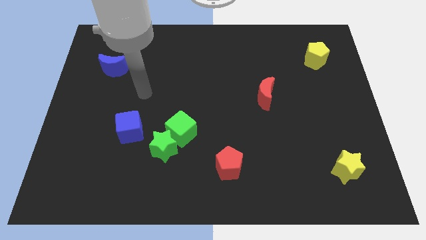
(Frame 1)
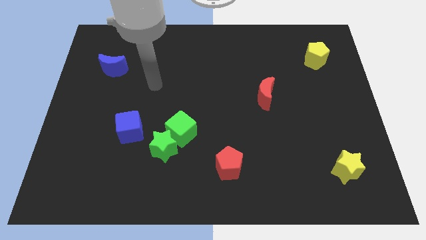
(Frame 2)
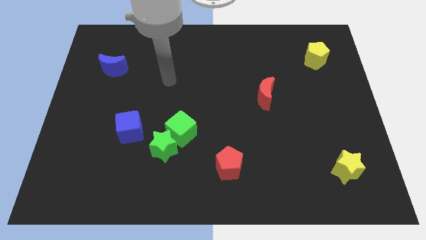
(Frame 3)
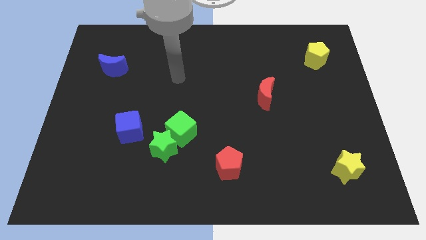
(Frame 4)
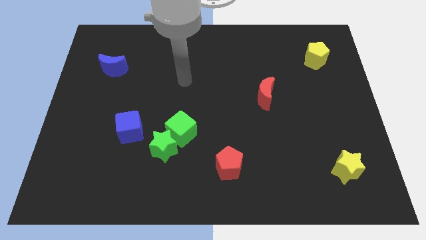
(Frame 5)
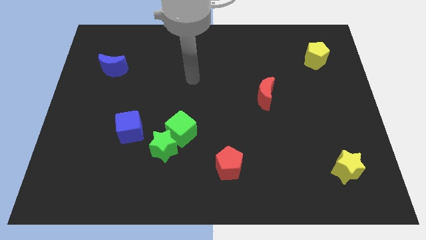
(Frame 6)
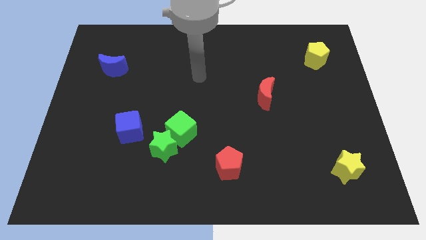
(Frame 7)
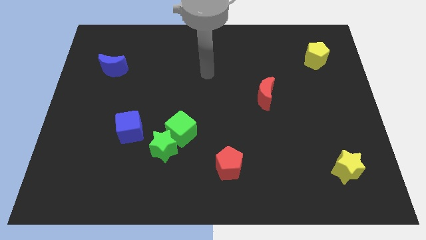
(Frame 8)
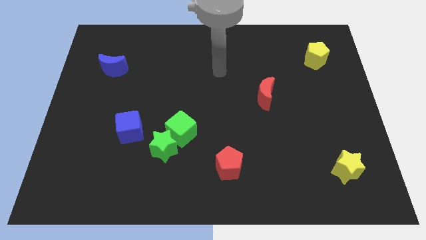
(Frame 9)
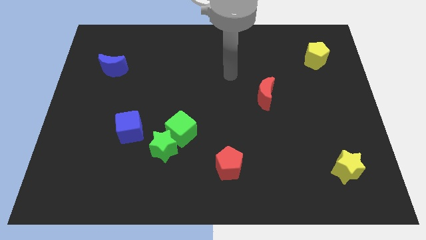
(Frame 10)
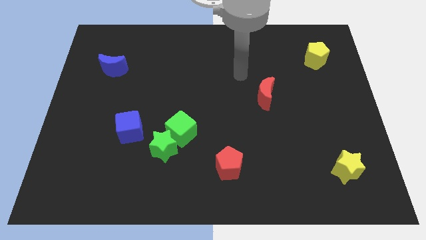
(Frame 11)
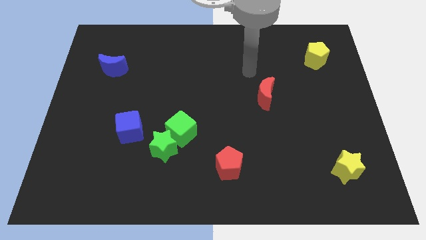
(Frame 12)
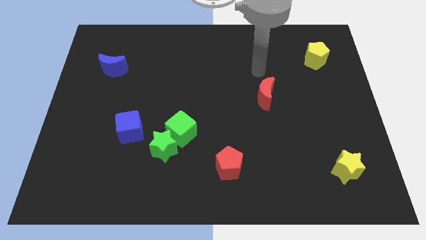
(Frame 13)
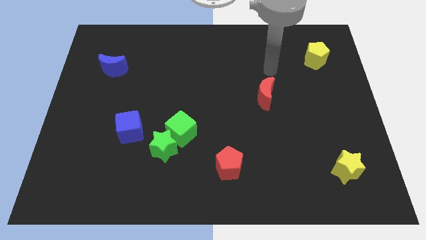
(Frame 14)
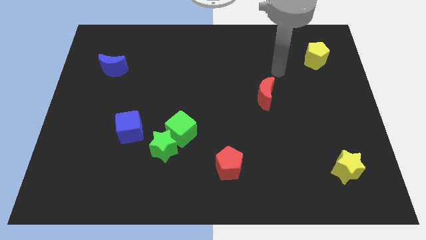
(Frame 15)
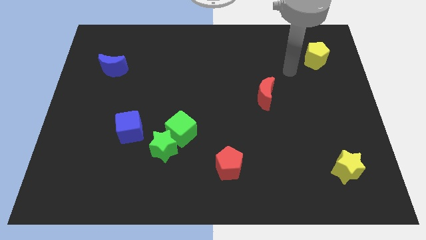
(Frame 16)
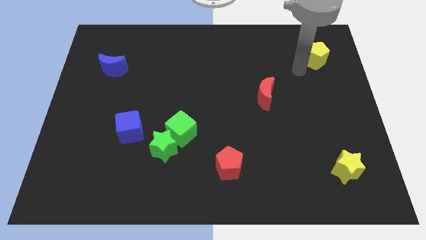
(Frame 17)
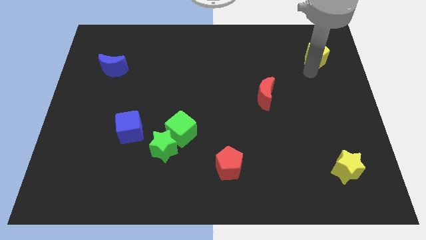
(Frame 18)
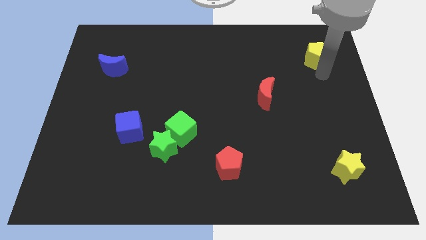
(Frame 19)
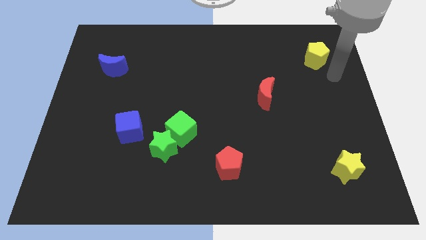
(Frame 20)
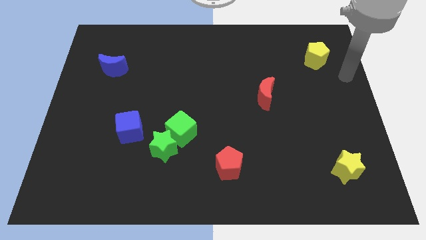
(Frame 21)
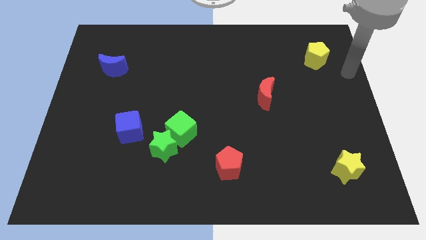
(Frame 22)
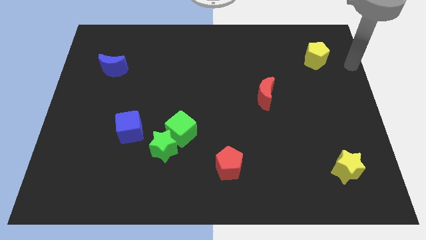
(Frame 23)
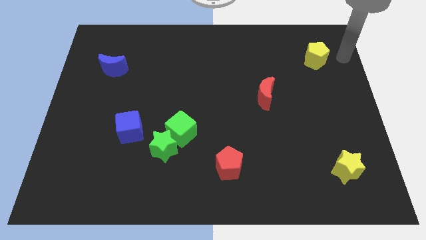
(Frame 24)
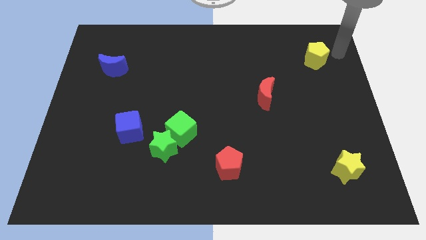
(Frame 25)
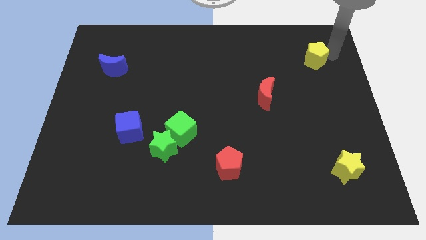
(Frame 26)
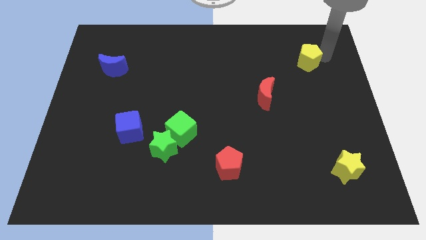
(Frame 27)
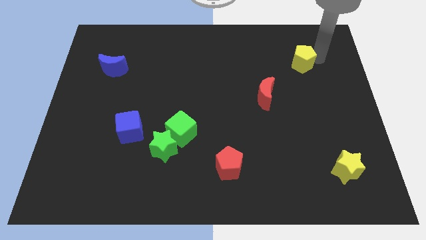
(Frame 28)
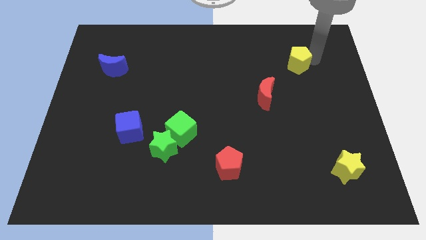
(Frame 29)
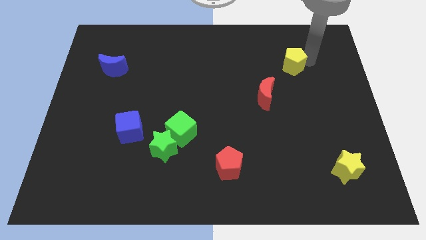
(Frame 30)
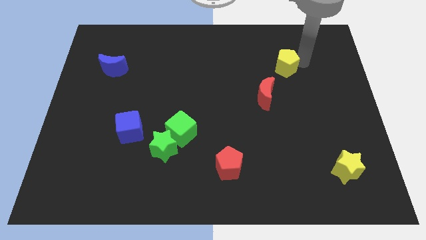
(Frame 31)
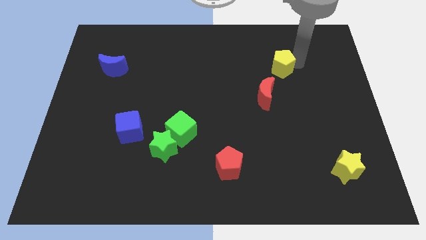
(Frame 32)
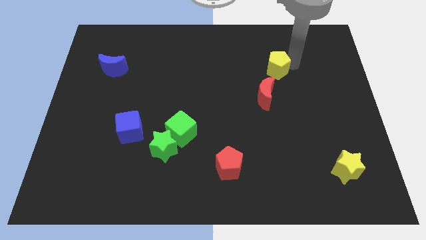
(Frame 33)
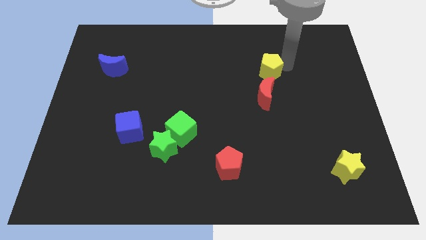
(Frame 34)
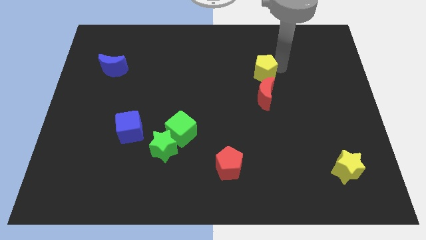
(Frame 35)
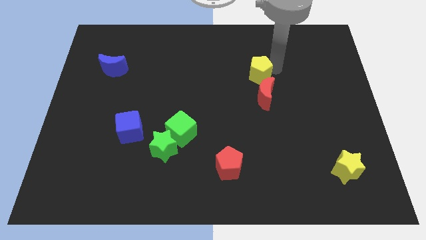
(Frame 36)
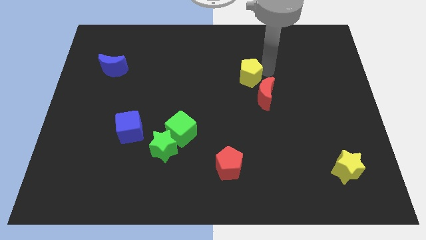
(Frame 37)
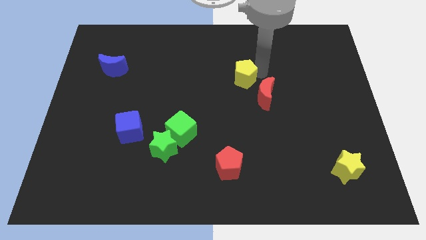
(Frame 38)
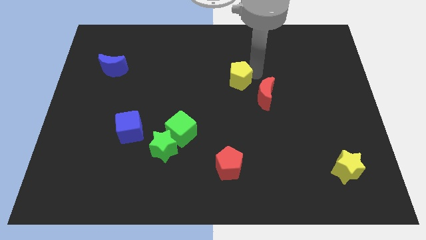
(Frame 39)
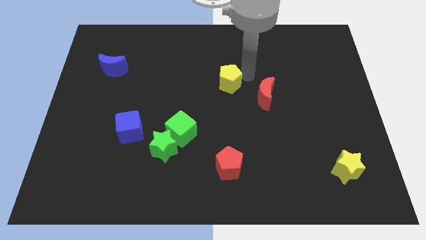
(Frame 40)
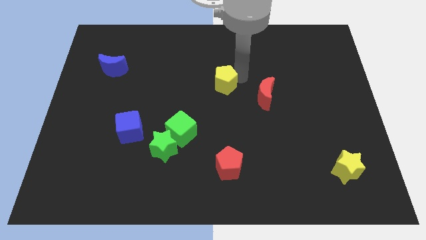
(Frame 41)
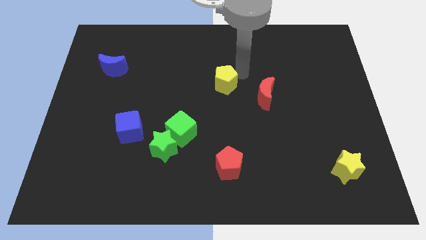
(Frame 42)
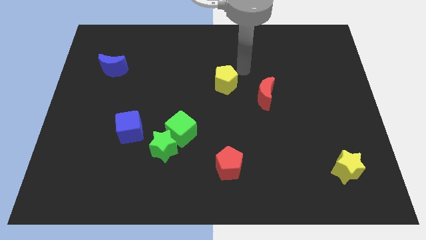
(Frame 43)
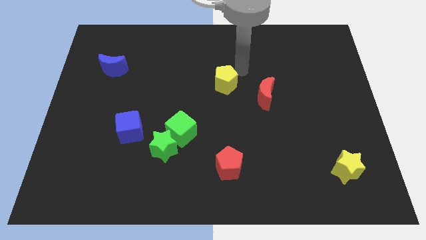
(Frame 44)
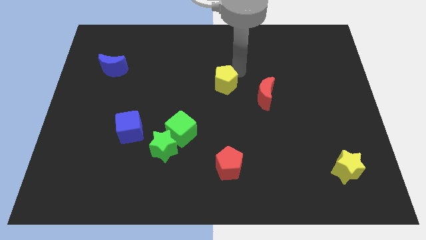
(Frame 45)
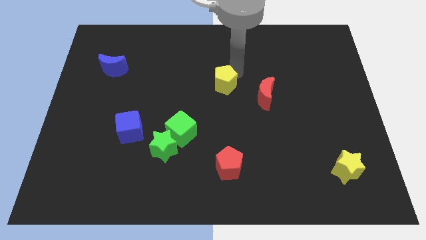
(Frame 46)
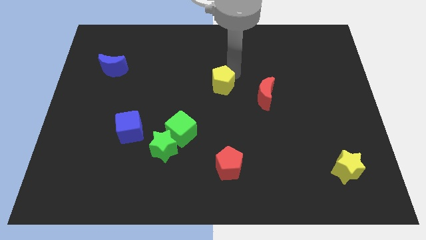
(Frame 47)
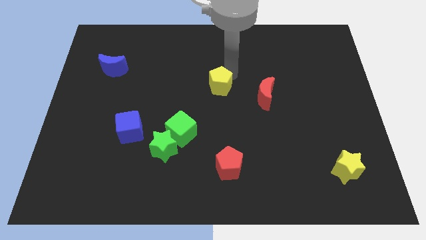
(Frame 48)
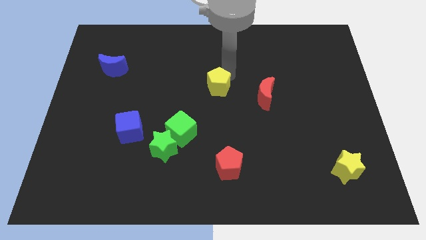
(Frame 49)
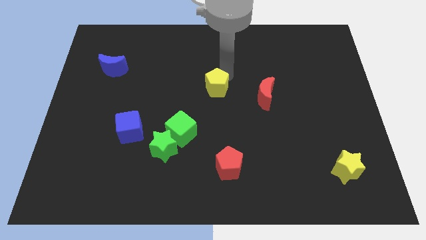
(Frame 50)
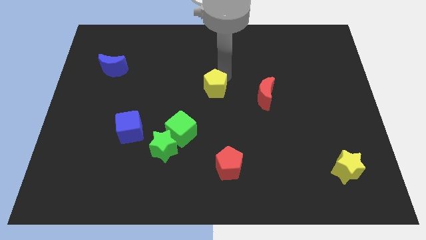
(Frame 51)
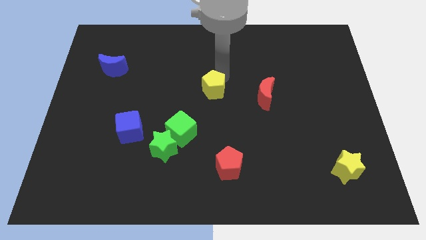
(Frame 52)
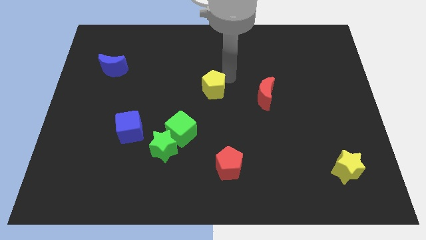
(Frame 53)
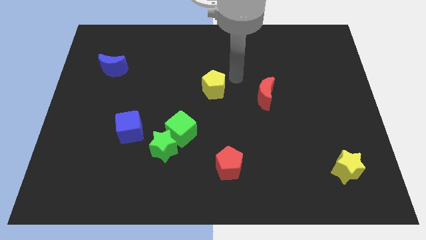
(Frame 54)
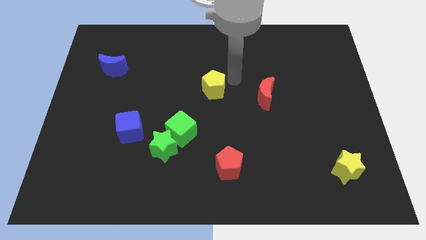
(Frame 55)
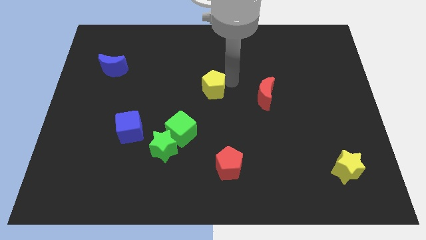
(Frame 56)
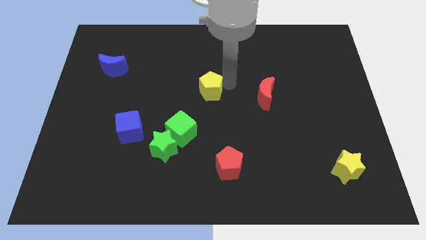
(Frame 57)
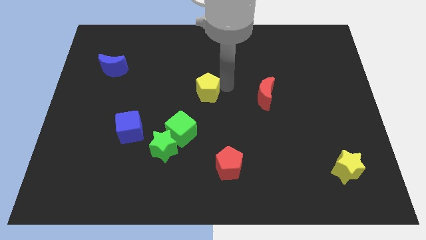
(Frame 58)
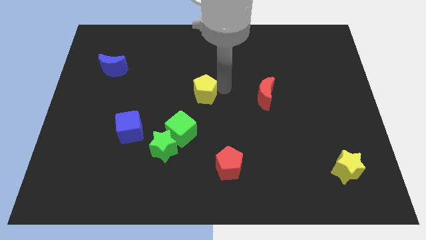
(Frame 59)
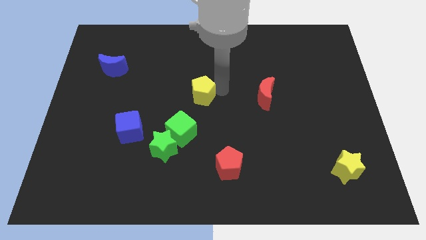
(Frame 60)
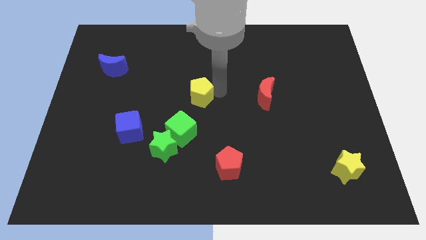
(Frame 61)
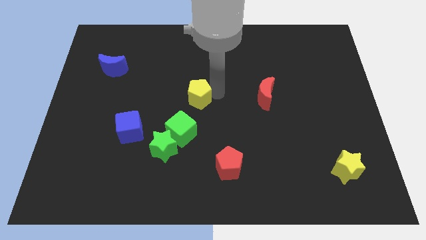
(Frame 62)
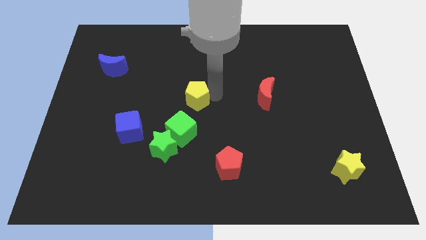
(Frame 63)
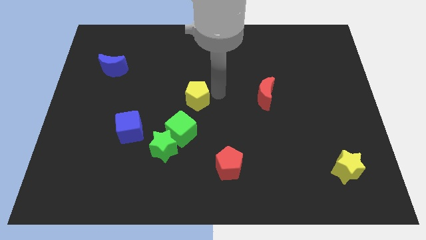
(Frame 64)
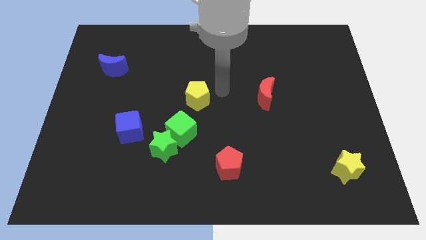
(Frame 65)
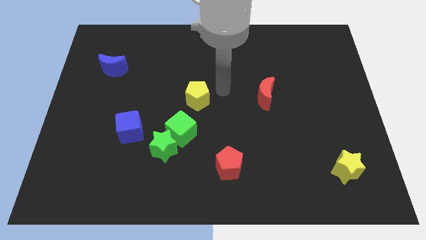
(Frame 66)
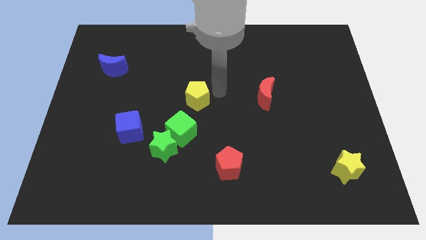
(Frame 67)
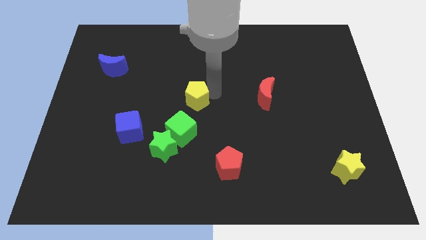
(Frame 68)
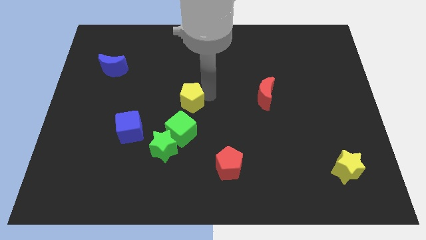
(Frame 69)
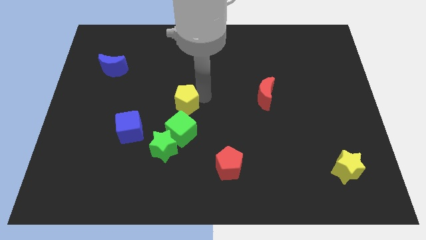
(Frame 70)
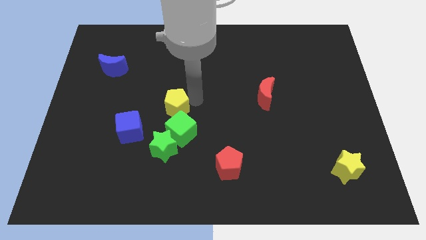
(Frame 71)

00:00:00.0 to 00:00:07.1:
slide the yellow pentagon to the top right side of the blue cube

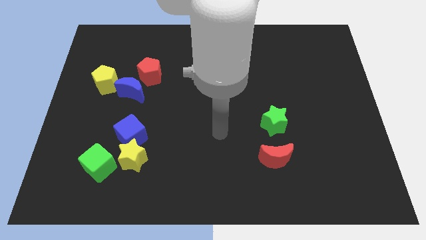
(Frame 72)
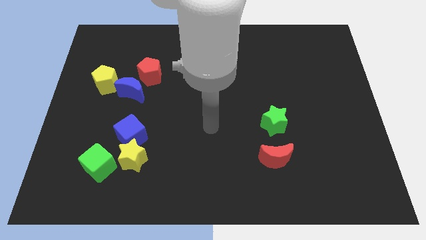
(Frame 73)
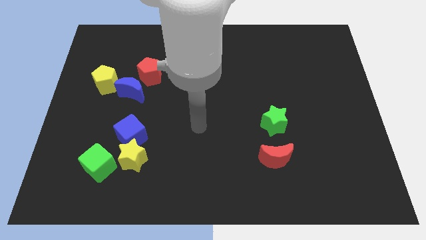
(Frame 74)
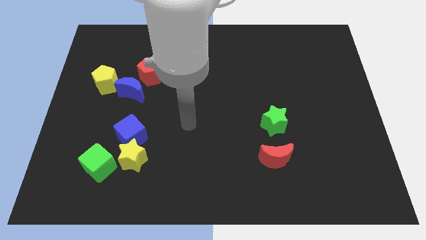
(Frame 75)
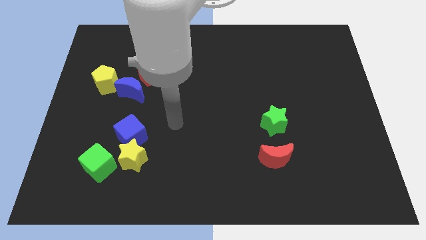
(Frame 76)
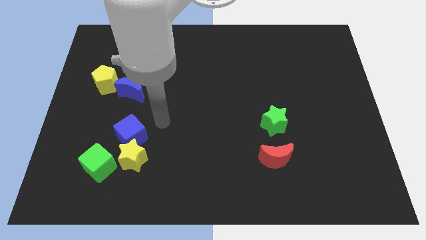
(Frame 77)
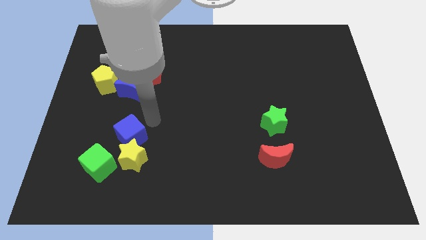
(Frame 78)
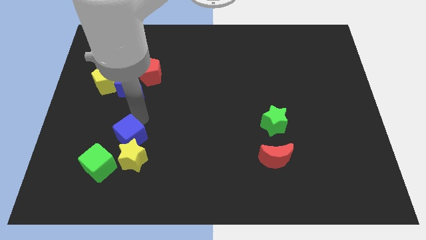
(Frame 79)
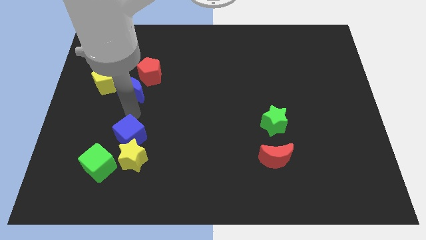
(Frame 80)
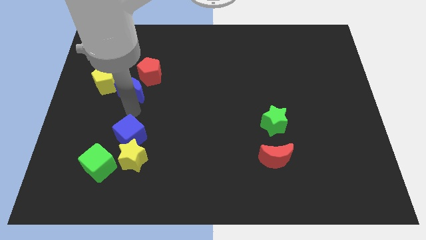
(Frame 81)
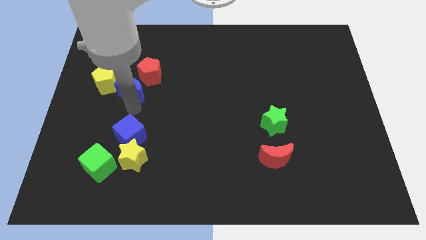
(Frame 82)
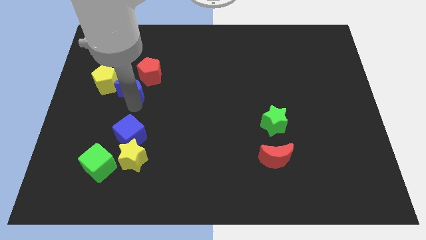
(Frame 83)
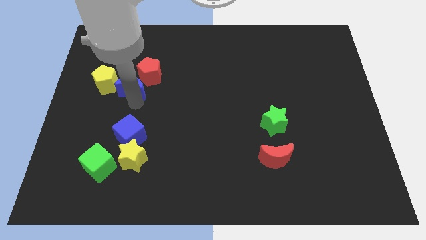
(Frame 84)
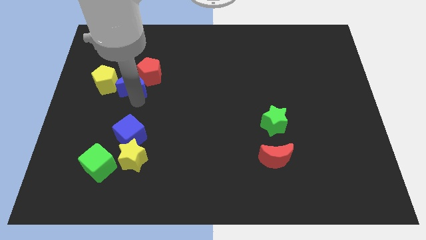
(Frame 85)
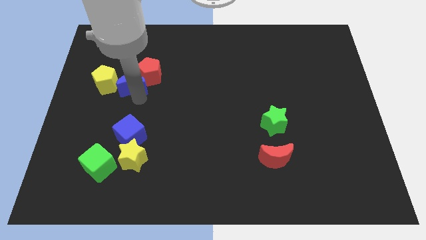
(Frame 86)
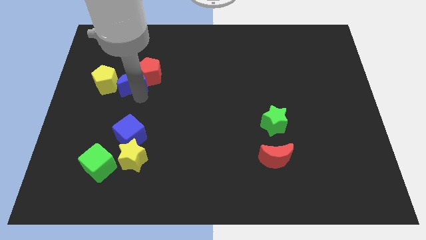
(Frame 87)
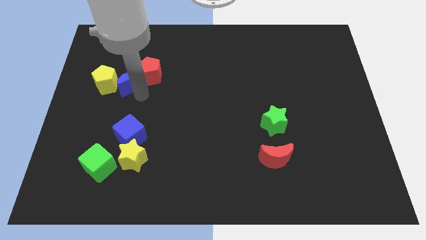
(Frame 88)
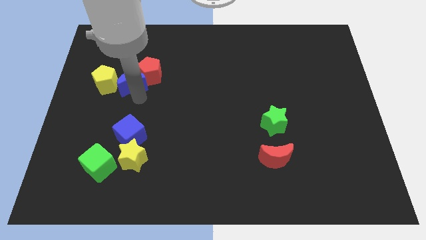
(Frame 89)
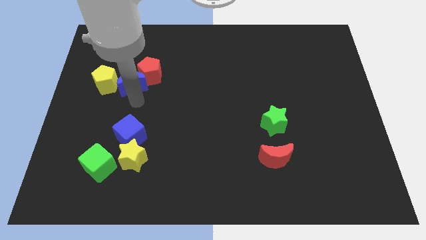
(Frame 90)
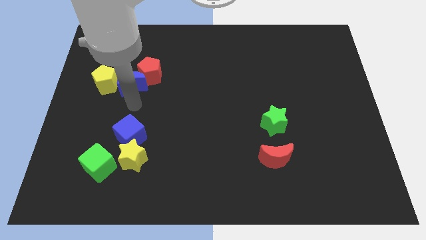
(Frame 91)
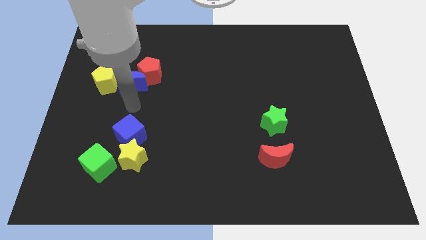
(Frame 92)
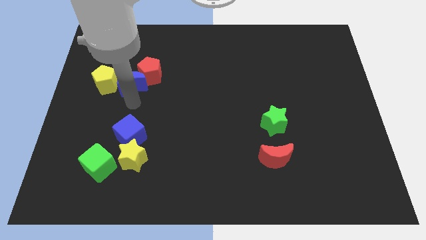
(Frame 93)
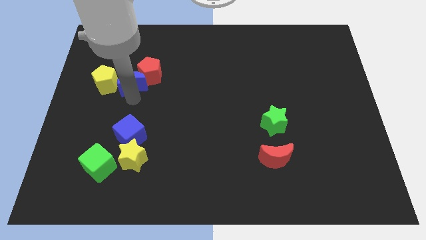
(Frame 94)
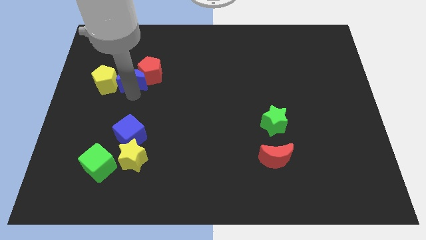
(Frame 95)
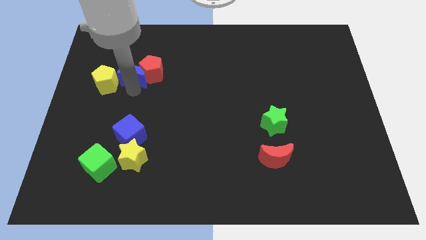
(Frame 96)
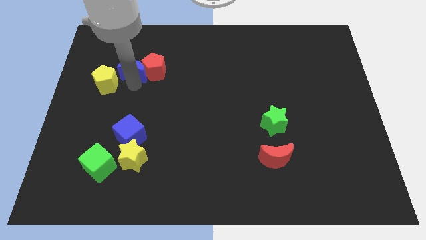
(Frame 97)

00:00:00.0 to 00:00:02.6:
move the blue moon to the top left of the red pentagon
